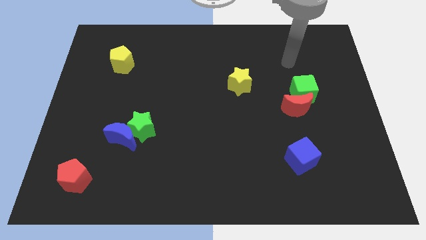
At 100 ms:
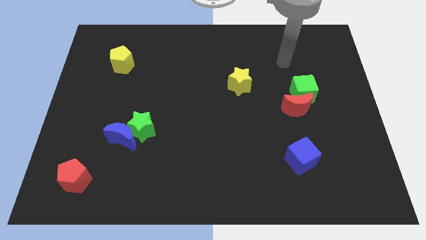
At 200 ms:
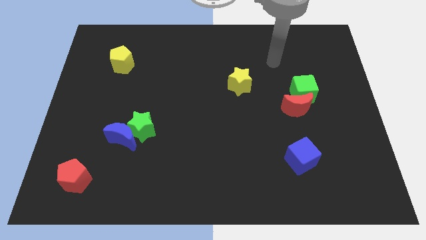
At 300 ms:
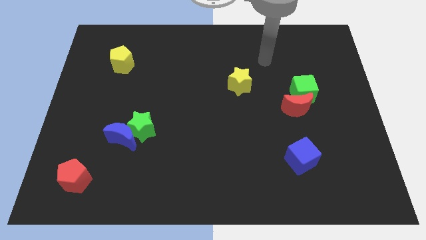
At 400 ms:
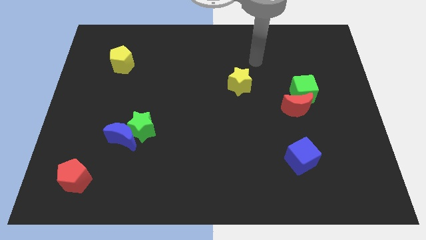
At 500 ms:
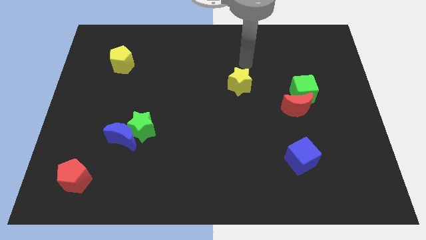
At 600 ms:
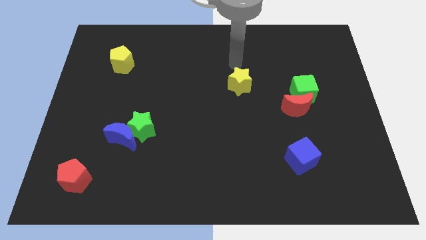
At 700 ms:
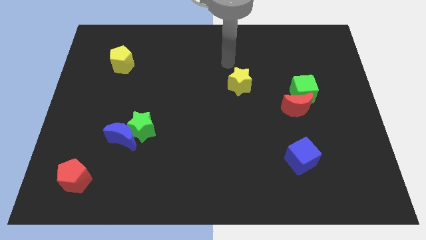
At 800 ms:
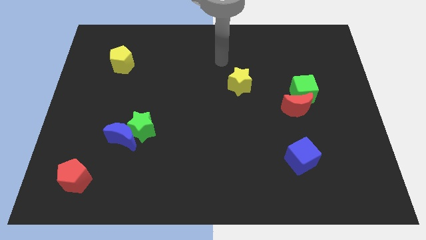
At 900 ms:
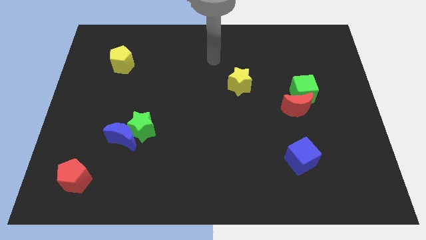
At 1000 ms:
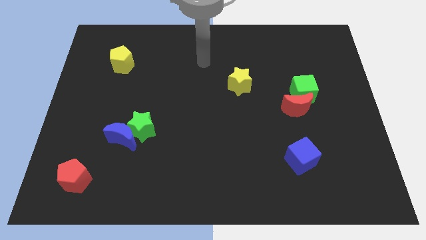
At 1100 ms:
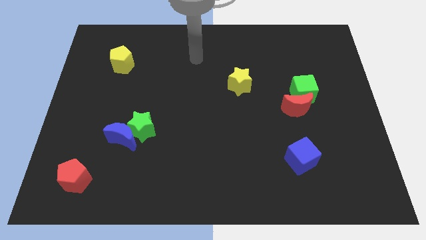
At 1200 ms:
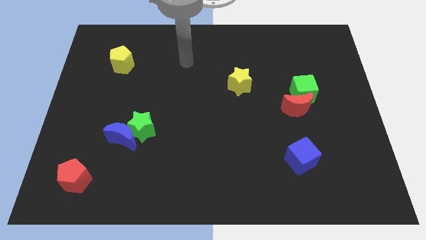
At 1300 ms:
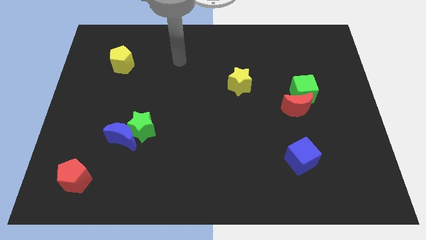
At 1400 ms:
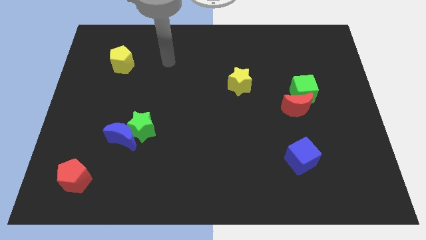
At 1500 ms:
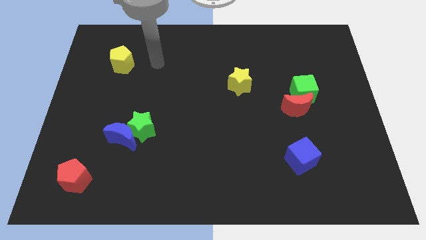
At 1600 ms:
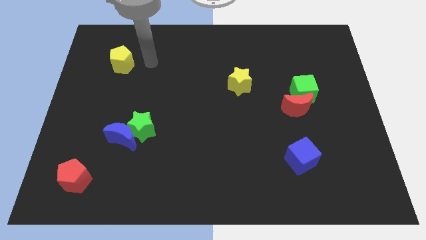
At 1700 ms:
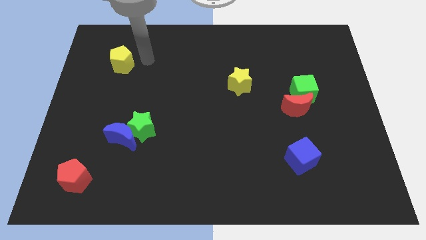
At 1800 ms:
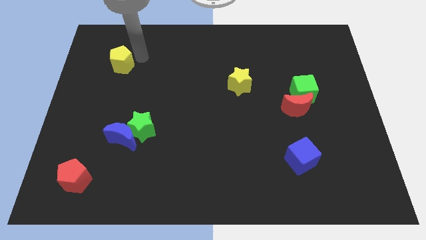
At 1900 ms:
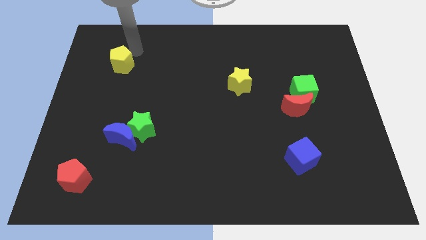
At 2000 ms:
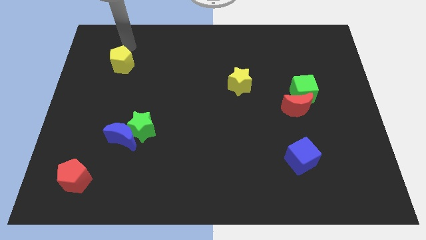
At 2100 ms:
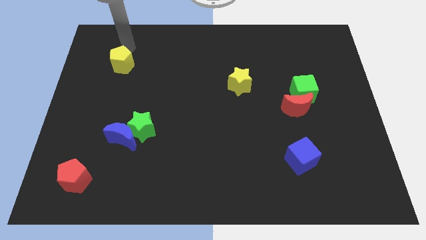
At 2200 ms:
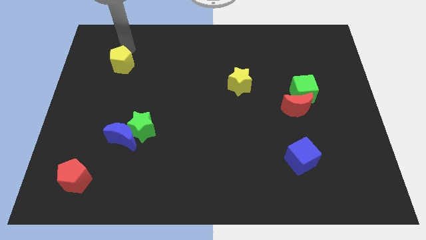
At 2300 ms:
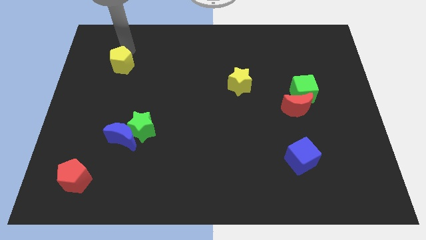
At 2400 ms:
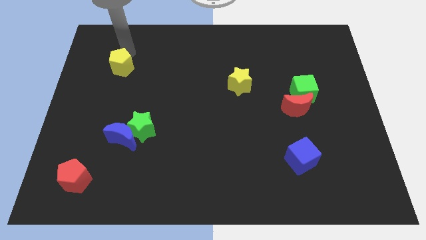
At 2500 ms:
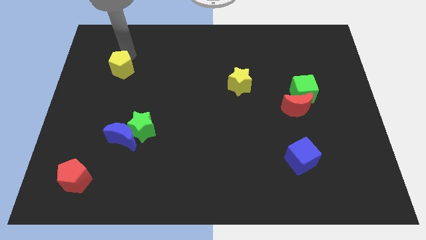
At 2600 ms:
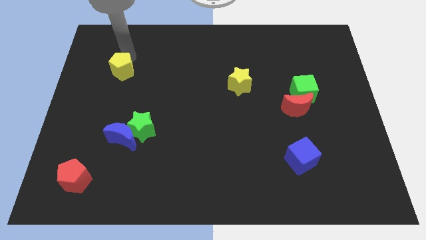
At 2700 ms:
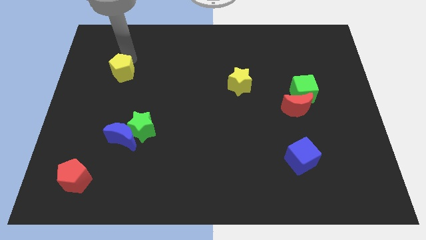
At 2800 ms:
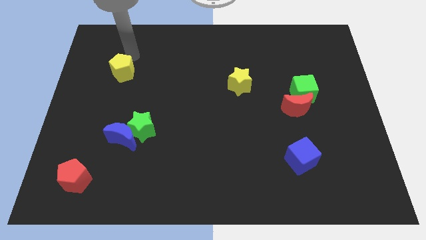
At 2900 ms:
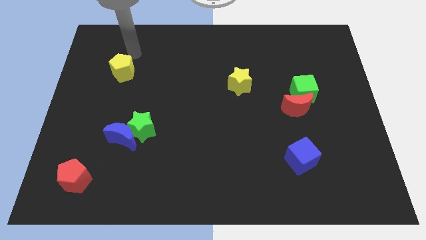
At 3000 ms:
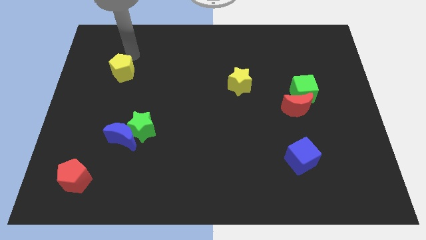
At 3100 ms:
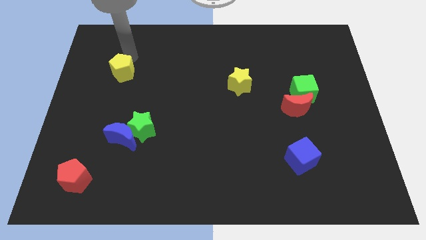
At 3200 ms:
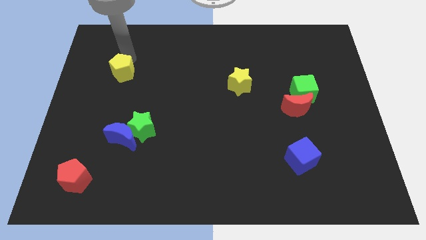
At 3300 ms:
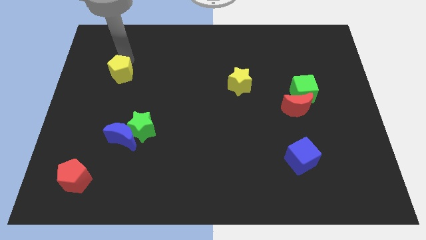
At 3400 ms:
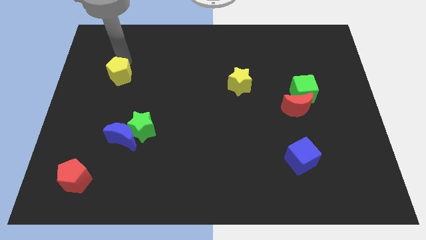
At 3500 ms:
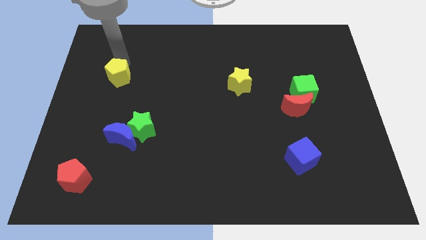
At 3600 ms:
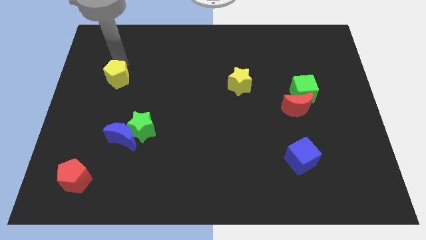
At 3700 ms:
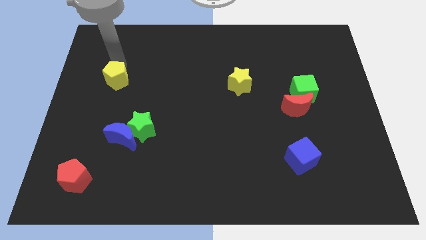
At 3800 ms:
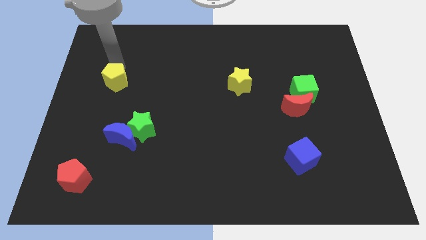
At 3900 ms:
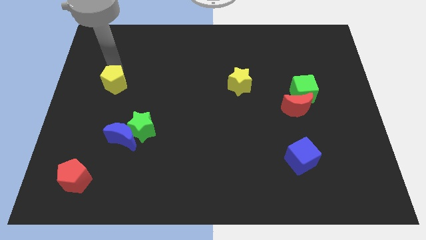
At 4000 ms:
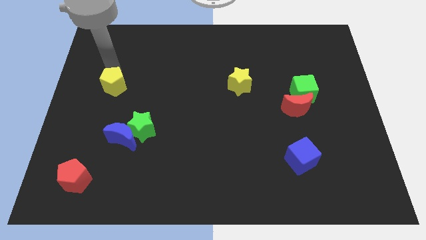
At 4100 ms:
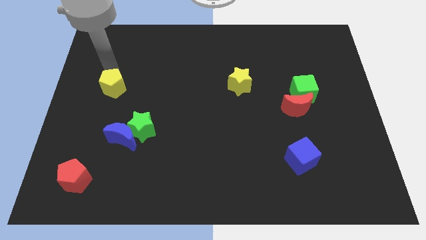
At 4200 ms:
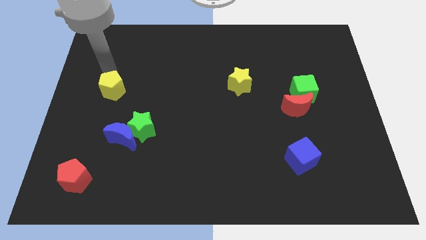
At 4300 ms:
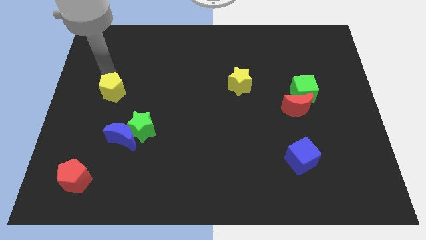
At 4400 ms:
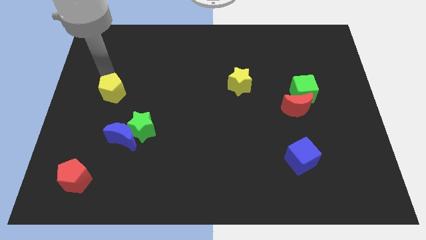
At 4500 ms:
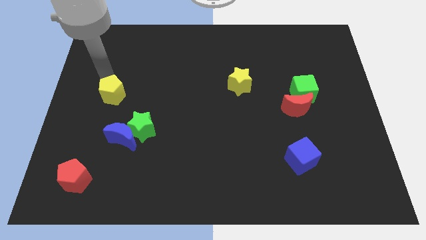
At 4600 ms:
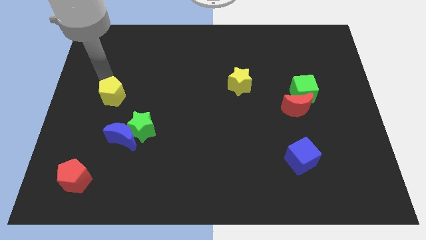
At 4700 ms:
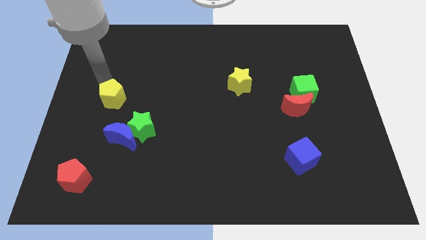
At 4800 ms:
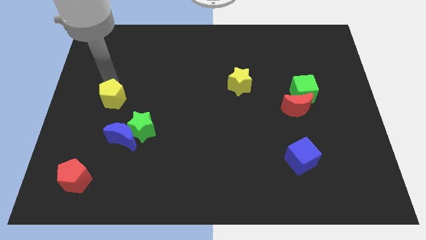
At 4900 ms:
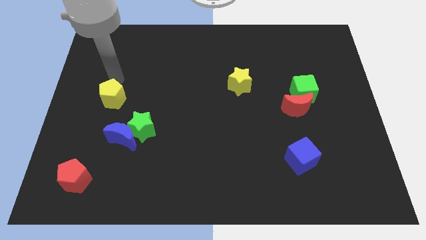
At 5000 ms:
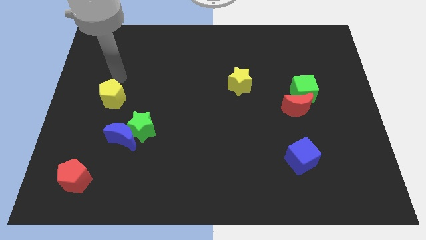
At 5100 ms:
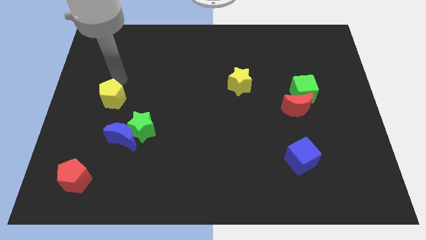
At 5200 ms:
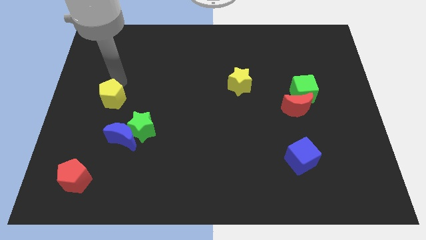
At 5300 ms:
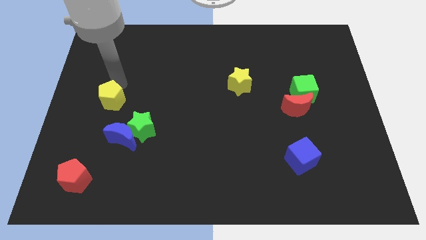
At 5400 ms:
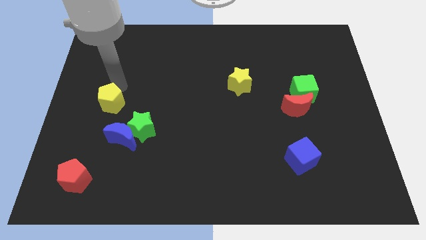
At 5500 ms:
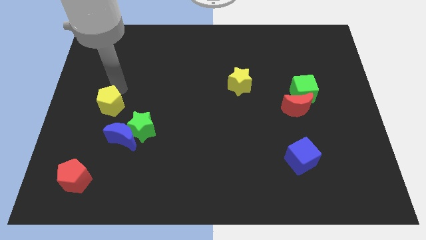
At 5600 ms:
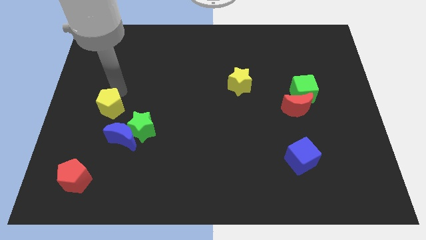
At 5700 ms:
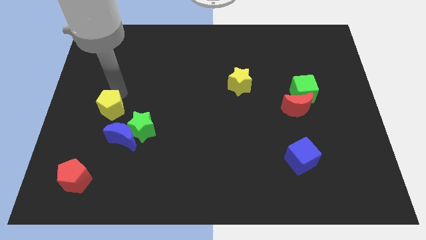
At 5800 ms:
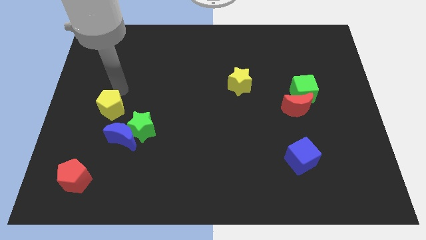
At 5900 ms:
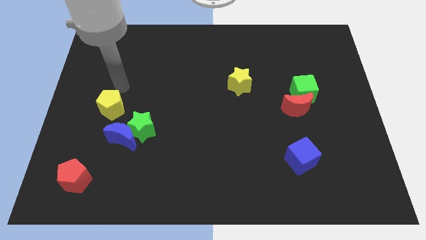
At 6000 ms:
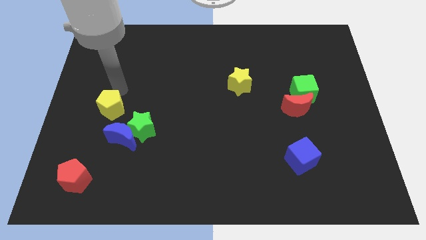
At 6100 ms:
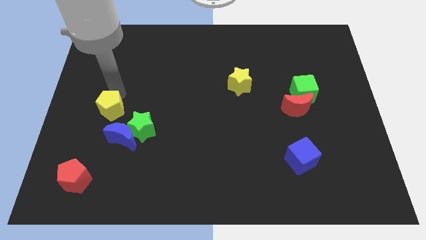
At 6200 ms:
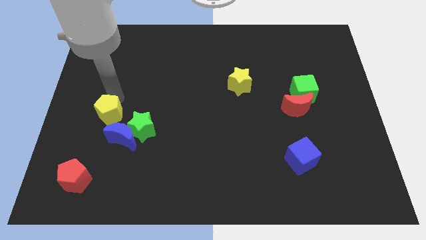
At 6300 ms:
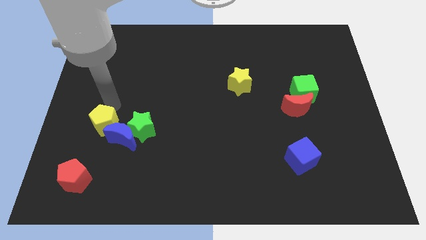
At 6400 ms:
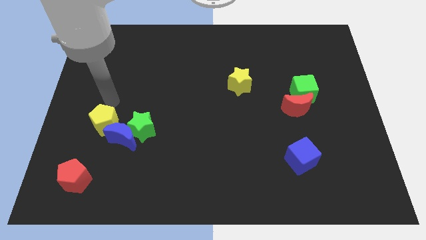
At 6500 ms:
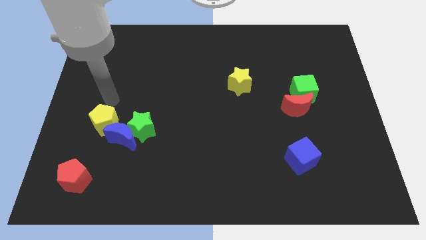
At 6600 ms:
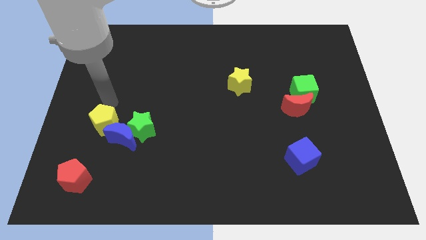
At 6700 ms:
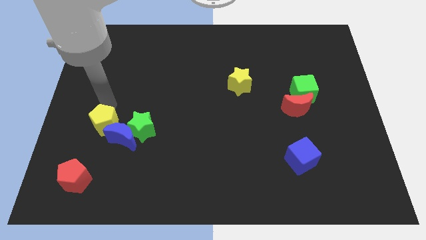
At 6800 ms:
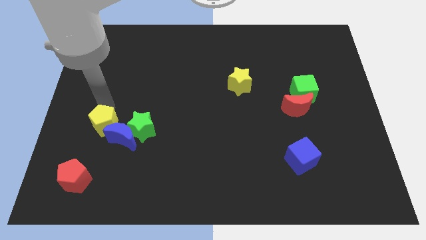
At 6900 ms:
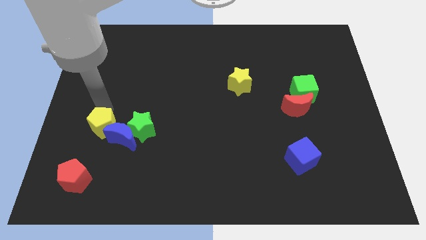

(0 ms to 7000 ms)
push the yellow pentagon down

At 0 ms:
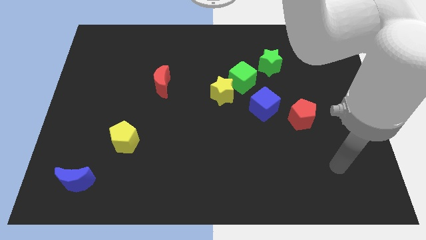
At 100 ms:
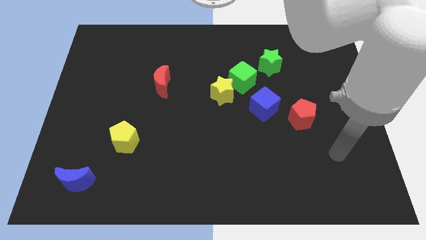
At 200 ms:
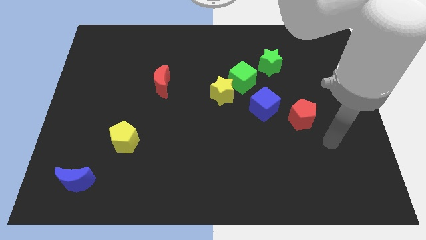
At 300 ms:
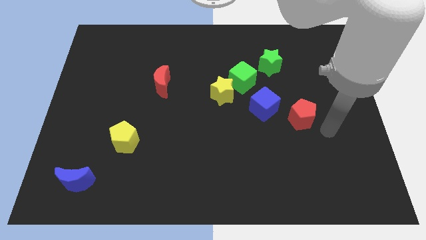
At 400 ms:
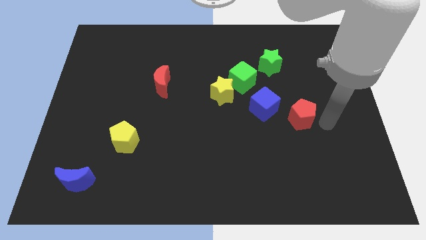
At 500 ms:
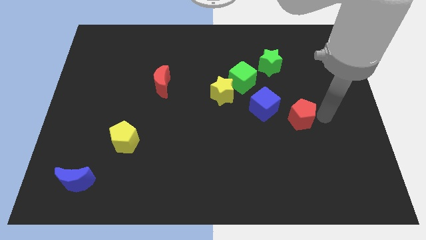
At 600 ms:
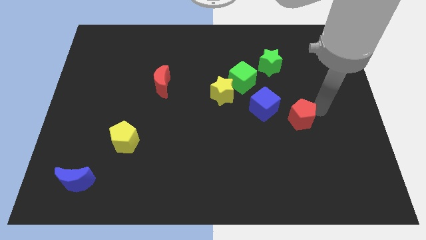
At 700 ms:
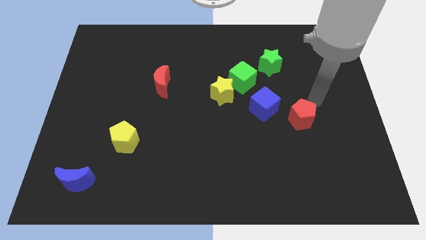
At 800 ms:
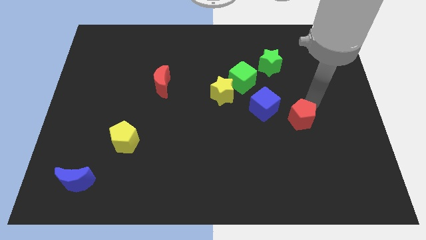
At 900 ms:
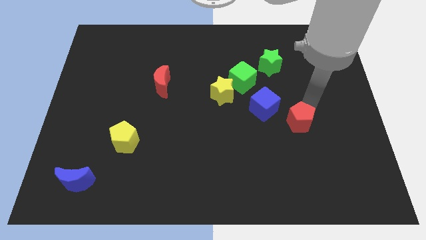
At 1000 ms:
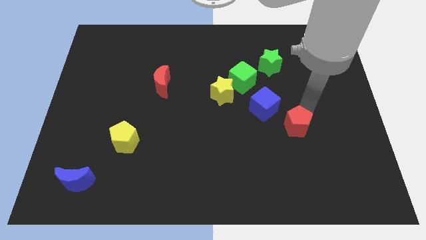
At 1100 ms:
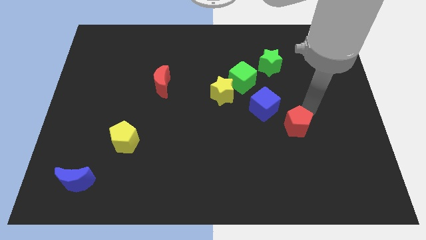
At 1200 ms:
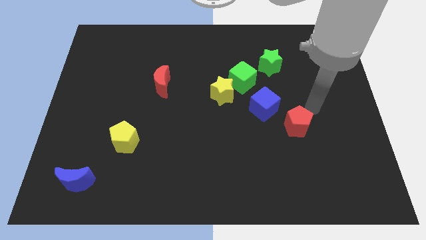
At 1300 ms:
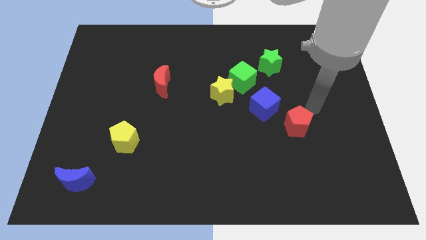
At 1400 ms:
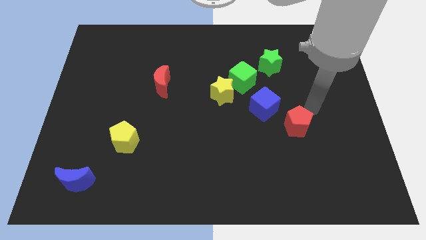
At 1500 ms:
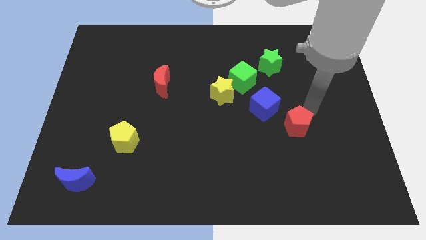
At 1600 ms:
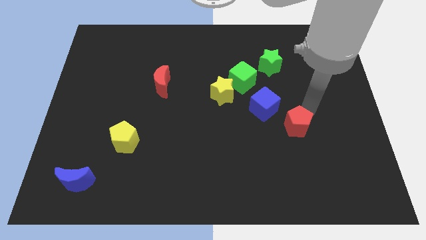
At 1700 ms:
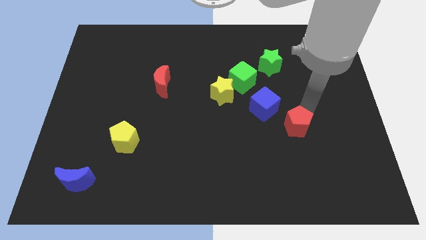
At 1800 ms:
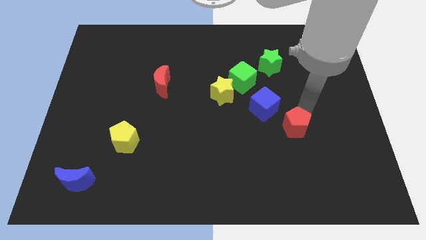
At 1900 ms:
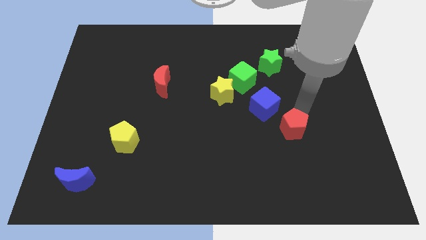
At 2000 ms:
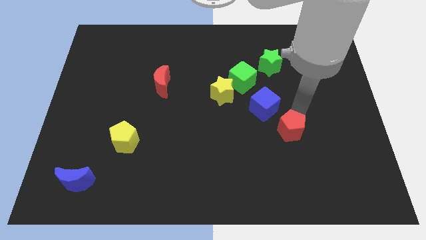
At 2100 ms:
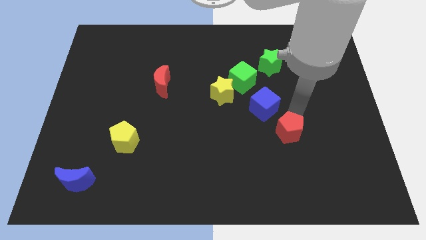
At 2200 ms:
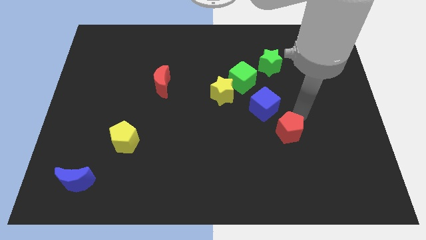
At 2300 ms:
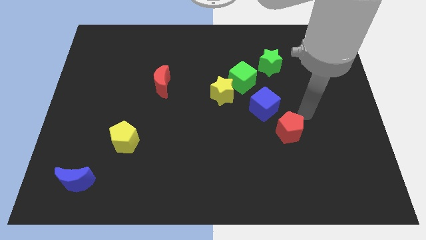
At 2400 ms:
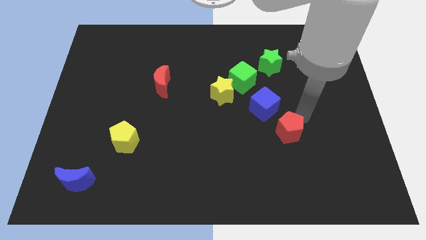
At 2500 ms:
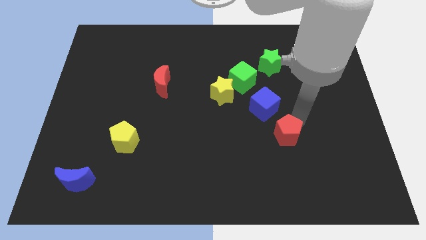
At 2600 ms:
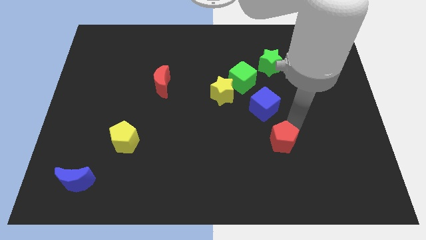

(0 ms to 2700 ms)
slide the red pentagon downwards and left diagonally a little bit
